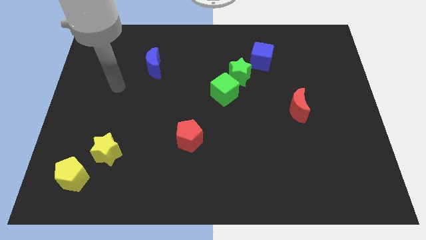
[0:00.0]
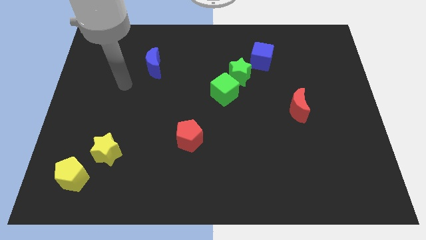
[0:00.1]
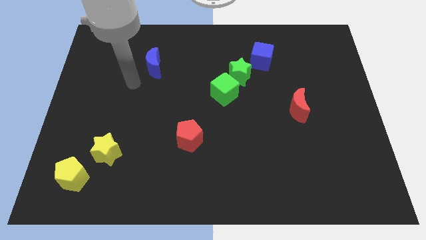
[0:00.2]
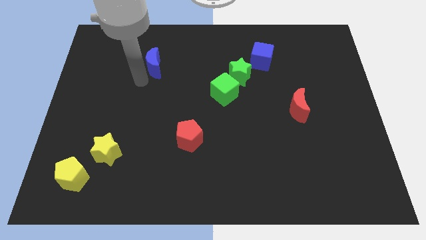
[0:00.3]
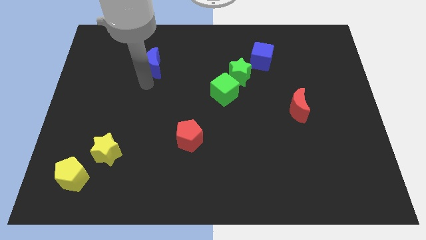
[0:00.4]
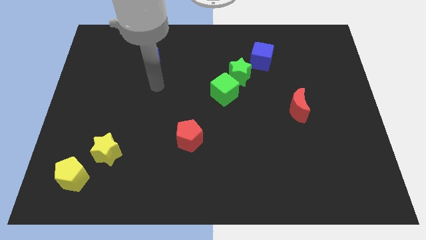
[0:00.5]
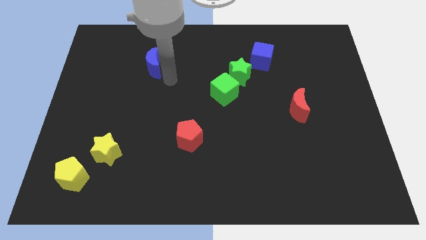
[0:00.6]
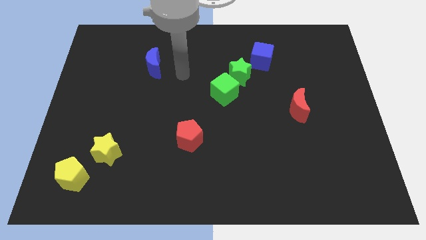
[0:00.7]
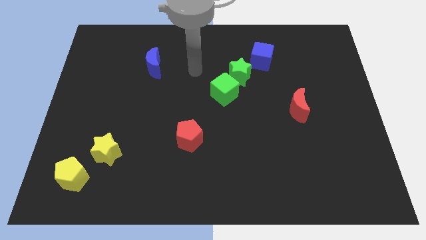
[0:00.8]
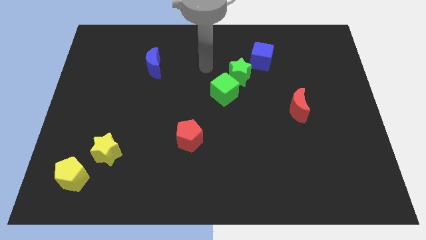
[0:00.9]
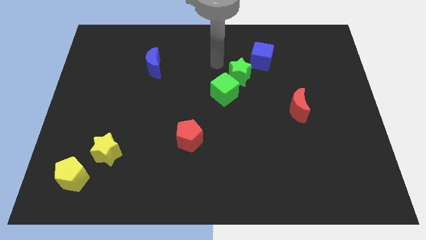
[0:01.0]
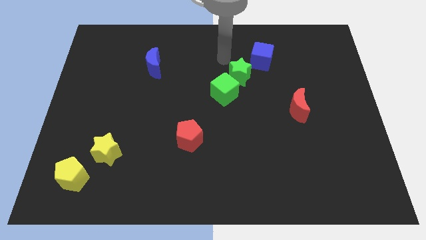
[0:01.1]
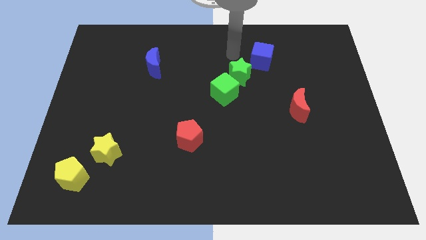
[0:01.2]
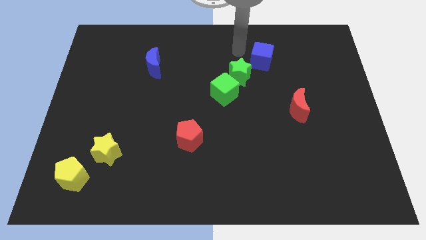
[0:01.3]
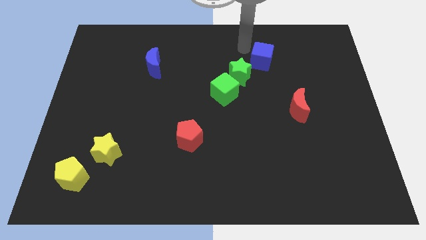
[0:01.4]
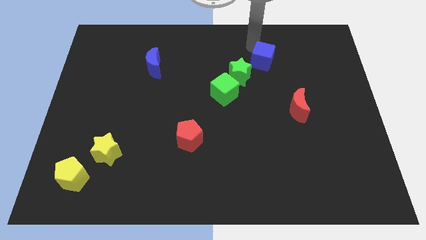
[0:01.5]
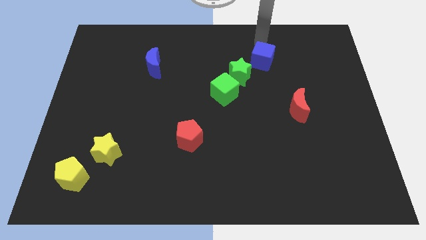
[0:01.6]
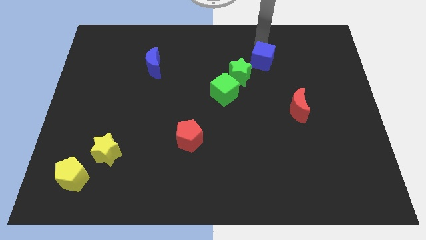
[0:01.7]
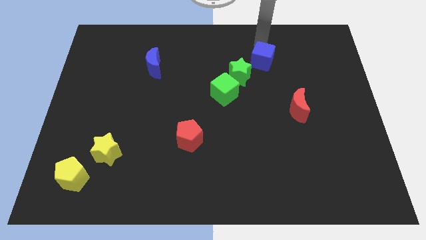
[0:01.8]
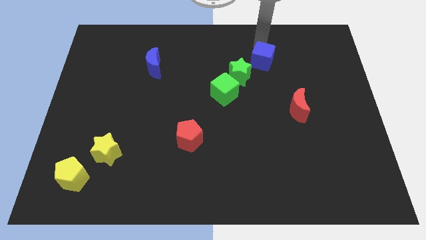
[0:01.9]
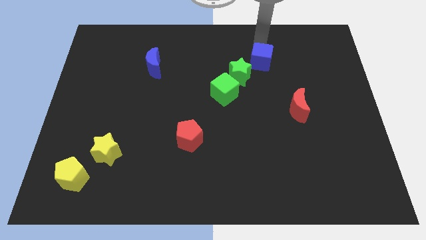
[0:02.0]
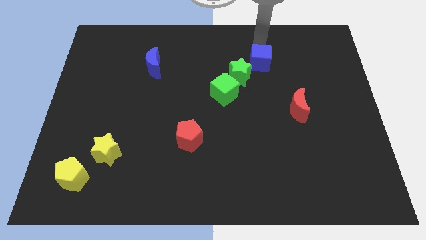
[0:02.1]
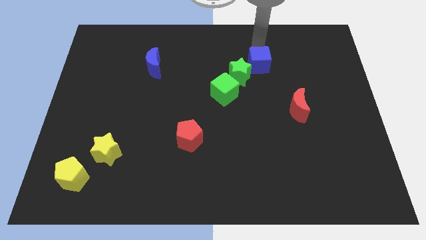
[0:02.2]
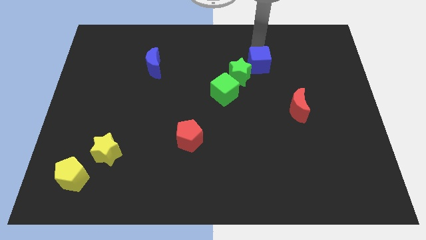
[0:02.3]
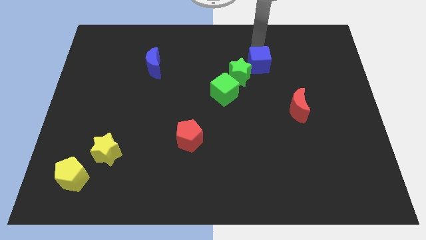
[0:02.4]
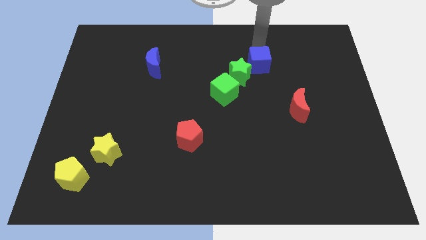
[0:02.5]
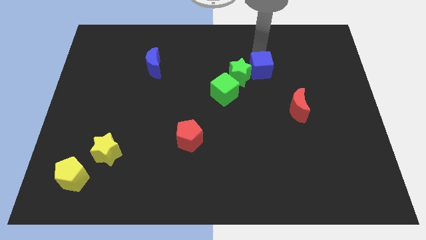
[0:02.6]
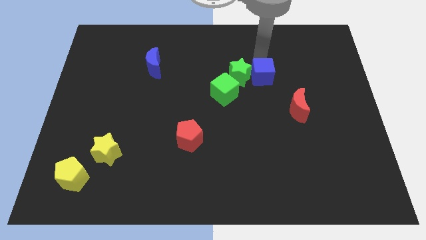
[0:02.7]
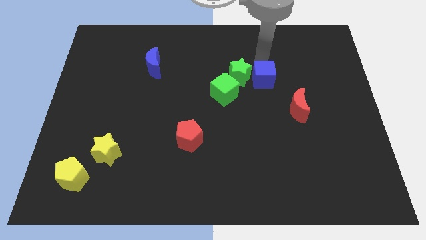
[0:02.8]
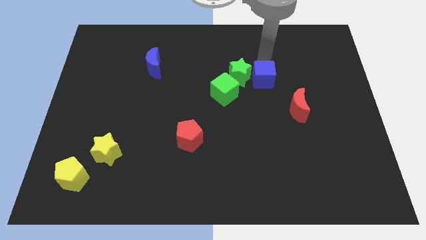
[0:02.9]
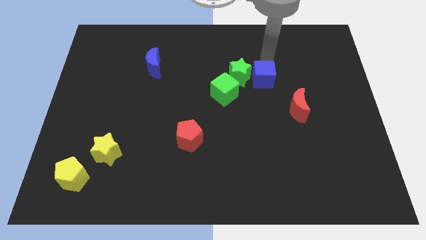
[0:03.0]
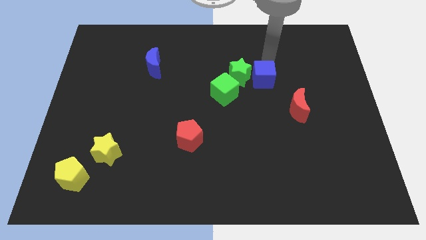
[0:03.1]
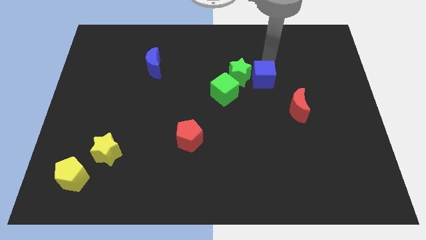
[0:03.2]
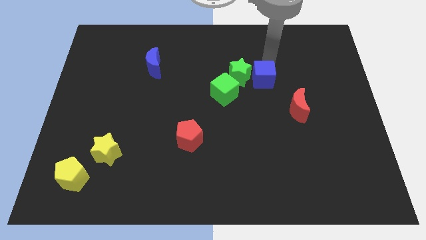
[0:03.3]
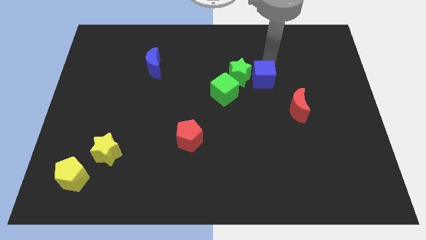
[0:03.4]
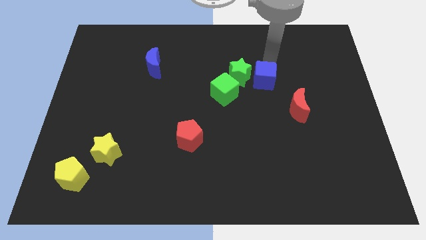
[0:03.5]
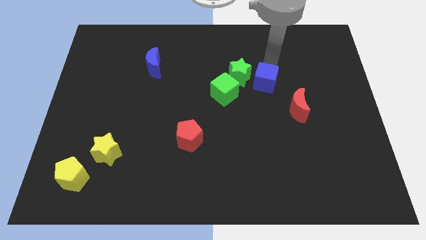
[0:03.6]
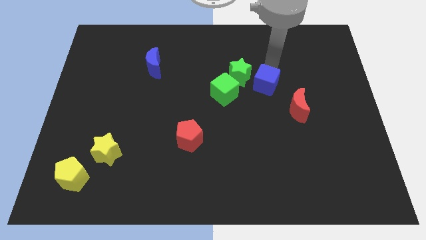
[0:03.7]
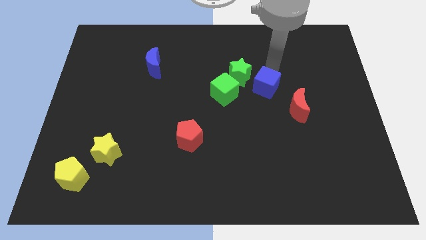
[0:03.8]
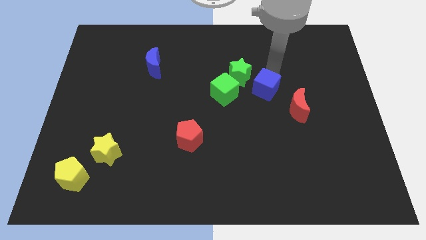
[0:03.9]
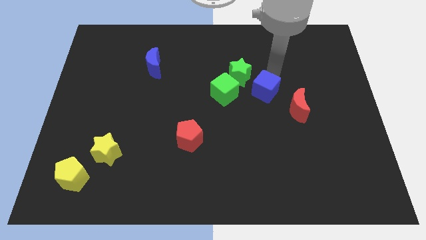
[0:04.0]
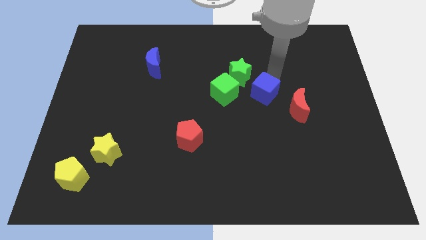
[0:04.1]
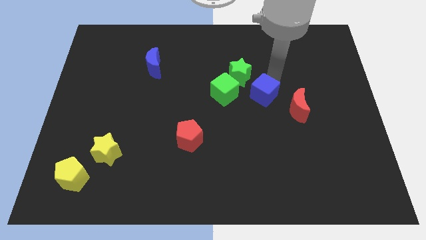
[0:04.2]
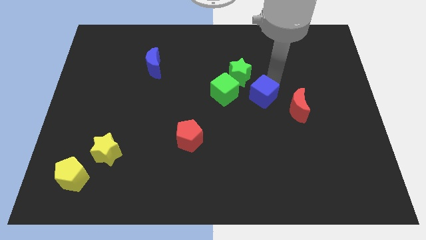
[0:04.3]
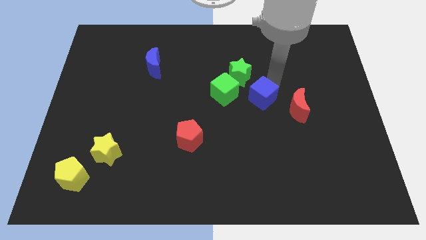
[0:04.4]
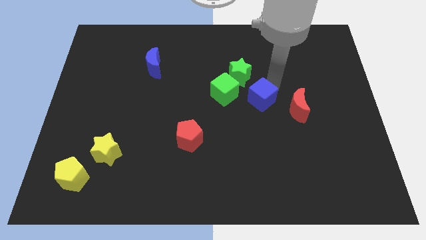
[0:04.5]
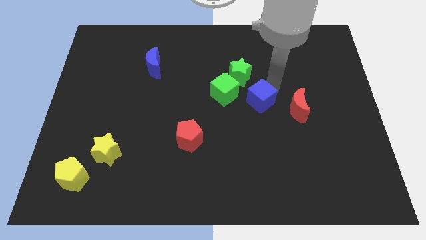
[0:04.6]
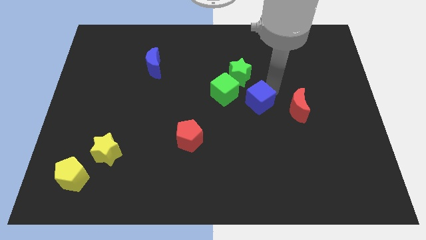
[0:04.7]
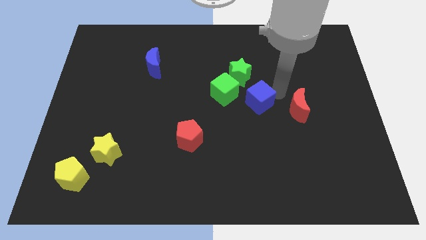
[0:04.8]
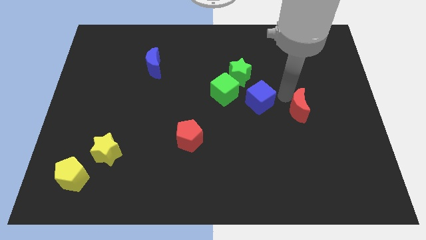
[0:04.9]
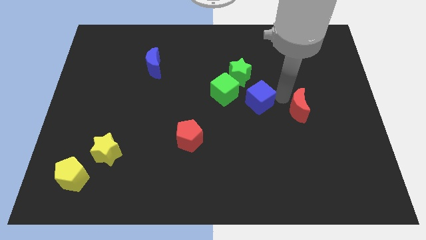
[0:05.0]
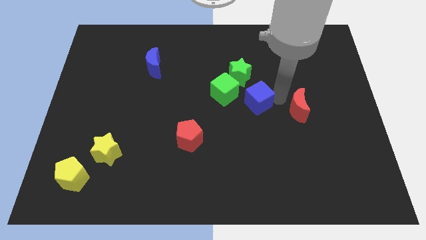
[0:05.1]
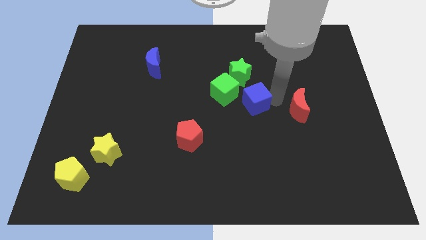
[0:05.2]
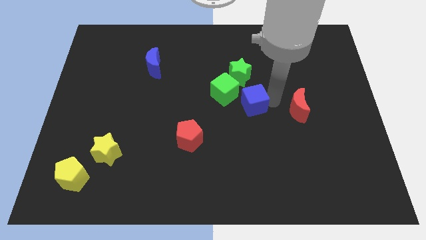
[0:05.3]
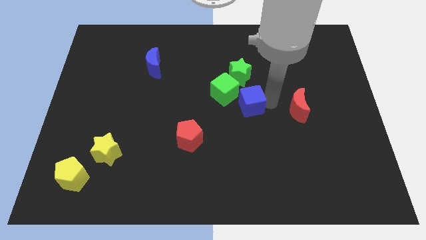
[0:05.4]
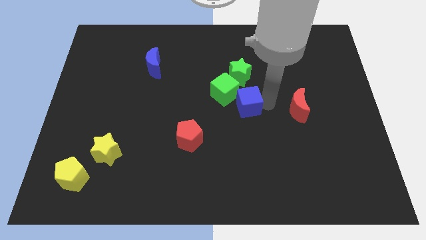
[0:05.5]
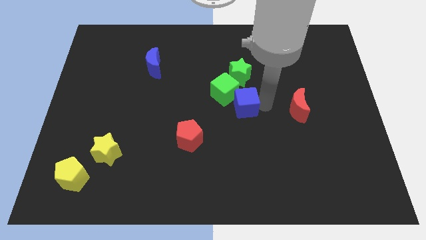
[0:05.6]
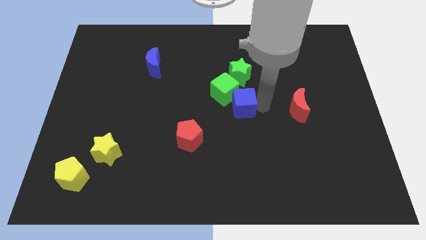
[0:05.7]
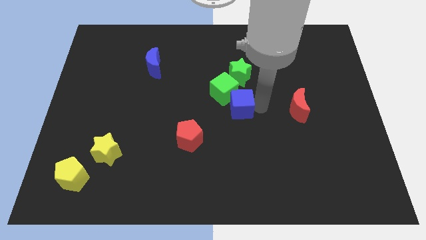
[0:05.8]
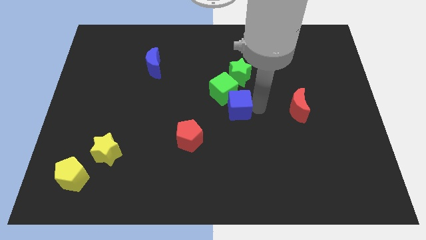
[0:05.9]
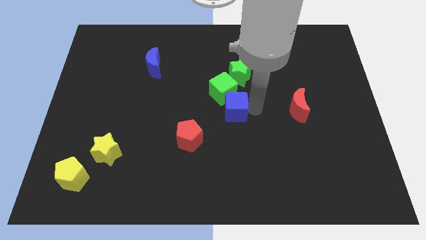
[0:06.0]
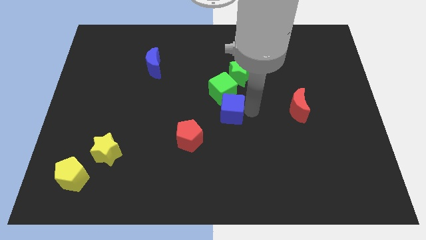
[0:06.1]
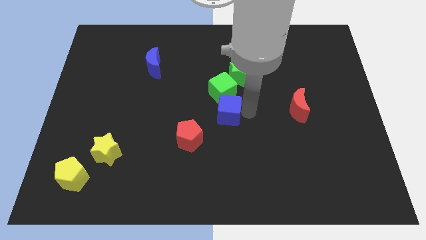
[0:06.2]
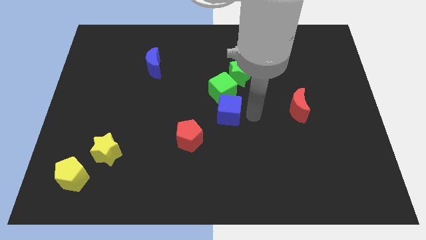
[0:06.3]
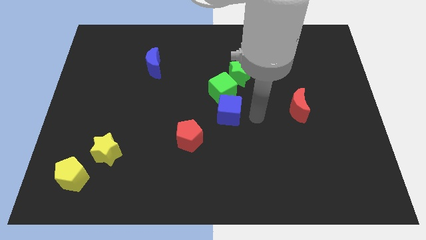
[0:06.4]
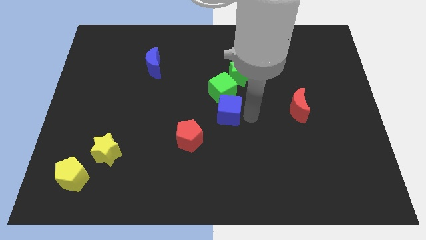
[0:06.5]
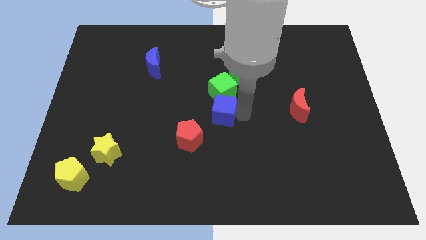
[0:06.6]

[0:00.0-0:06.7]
slide the blue cube diagonally down and to the left of the green cube
